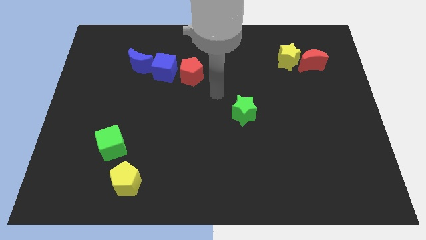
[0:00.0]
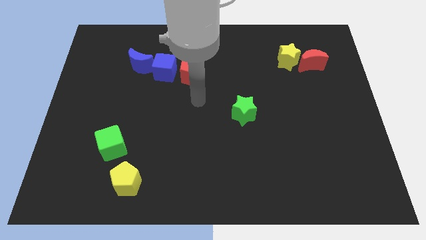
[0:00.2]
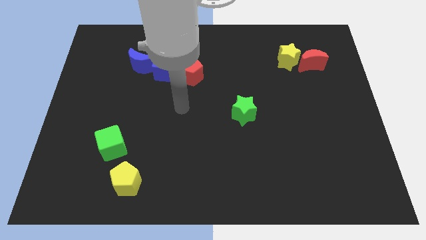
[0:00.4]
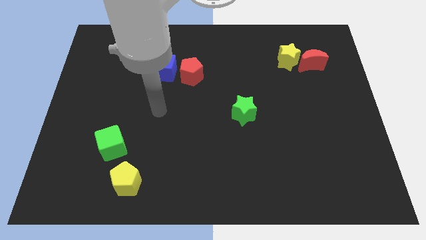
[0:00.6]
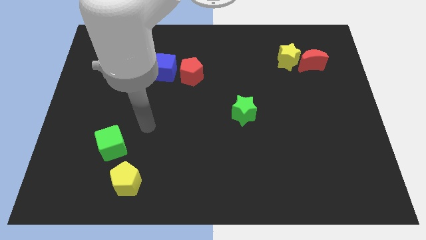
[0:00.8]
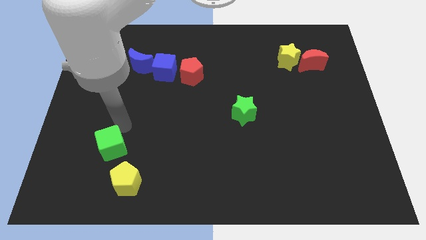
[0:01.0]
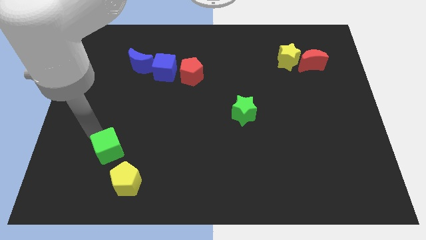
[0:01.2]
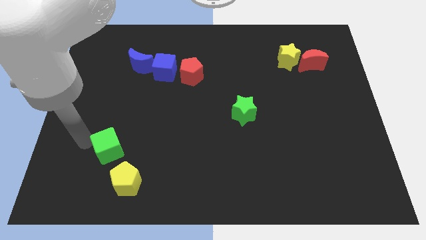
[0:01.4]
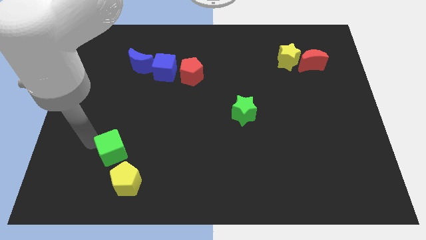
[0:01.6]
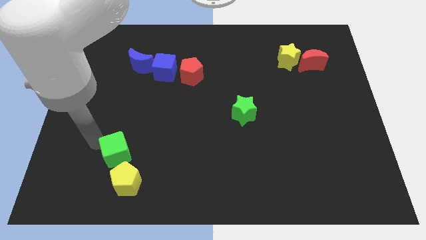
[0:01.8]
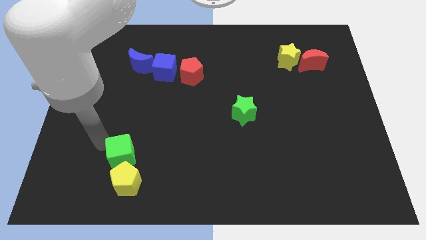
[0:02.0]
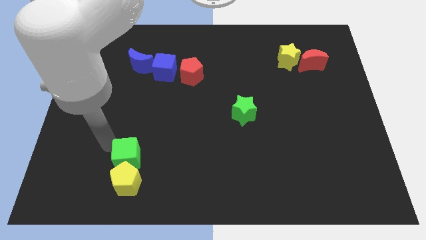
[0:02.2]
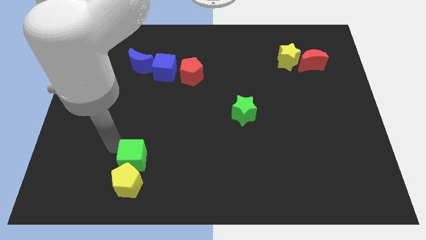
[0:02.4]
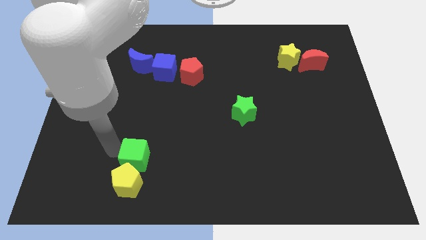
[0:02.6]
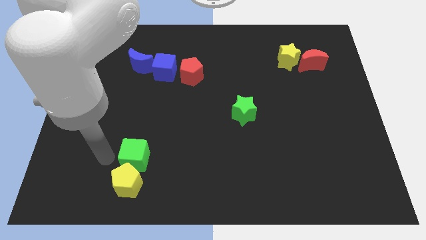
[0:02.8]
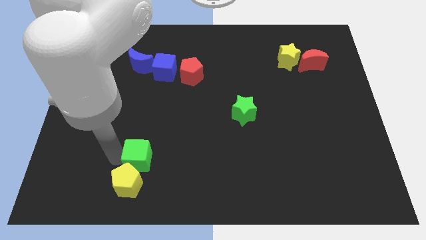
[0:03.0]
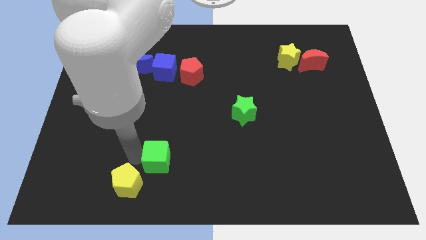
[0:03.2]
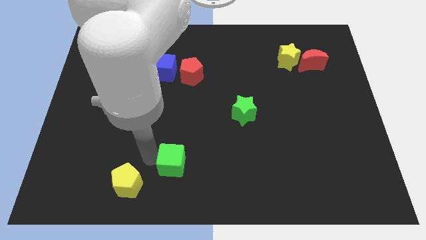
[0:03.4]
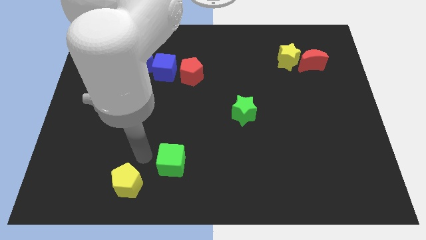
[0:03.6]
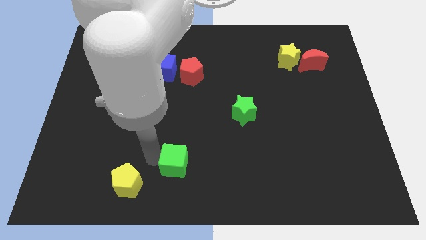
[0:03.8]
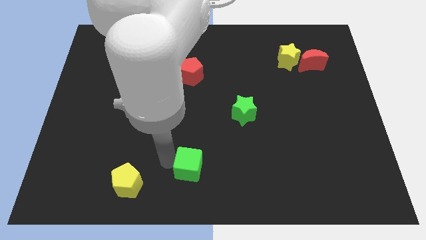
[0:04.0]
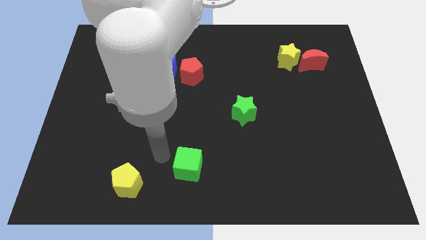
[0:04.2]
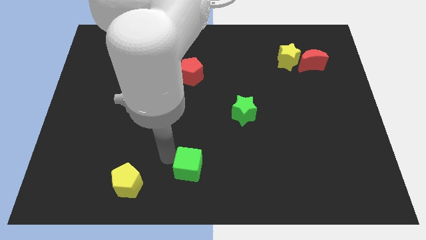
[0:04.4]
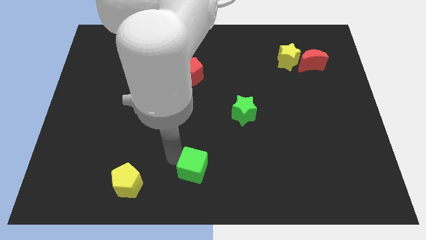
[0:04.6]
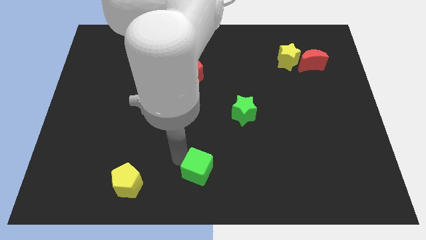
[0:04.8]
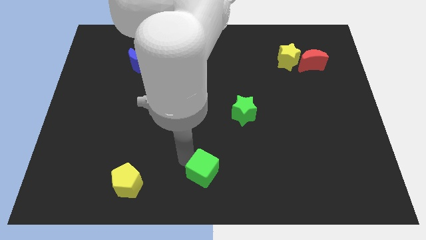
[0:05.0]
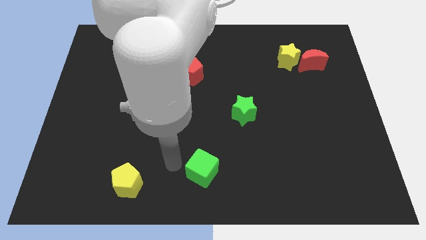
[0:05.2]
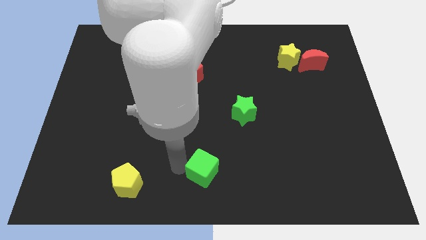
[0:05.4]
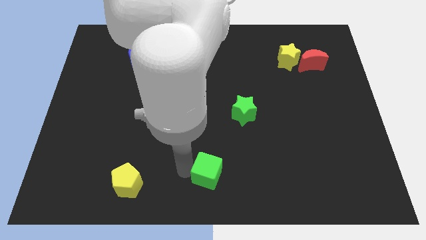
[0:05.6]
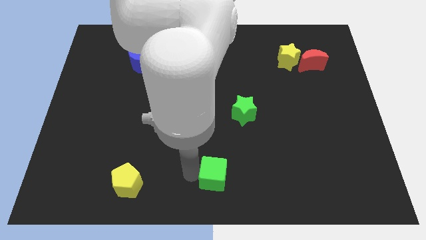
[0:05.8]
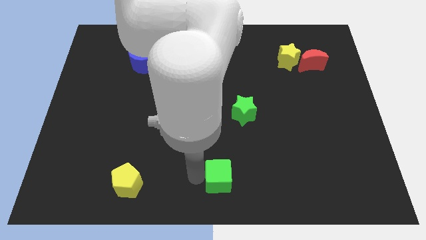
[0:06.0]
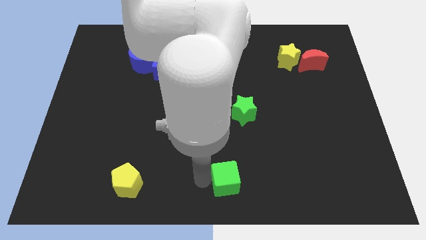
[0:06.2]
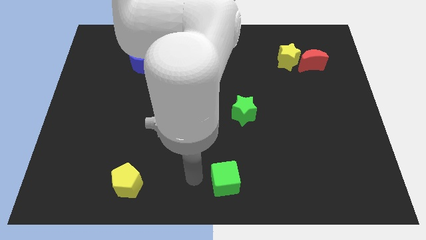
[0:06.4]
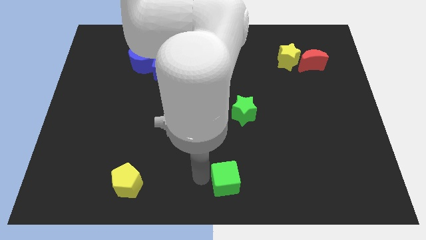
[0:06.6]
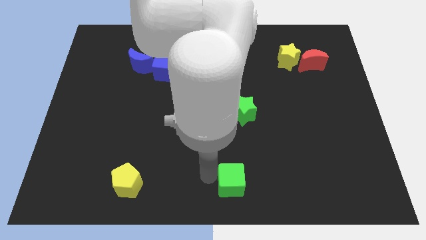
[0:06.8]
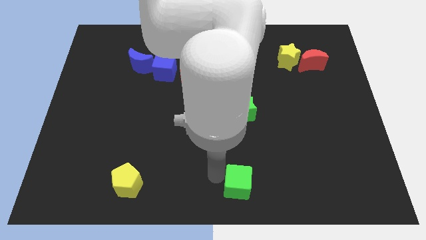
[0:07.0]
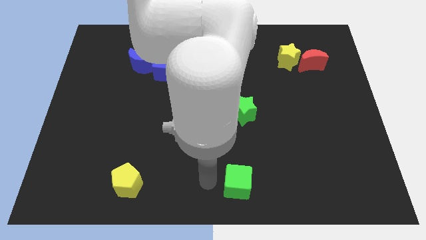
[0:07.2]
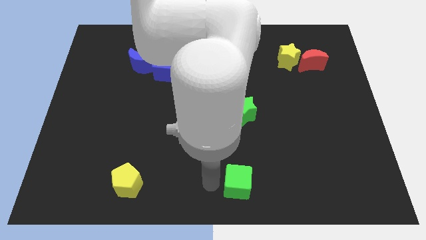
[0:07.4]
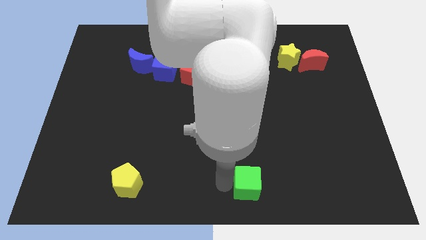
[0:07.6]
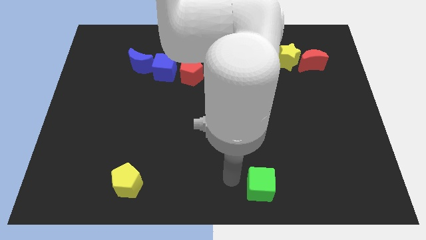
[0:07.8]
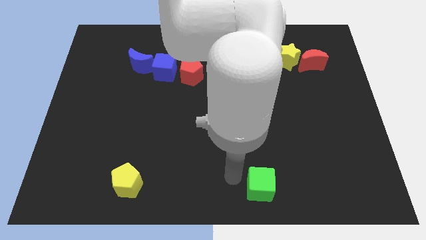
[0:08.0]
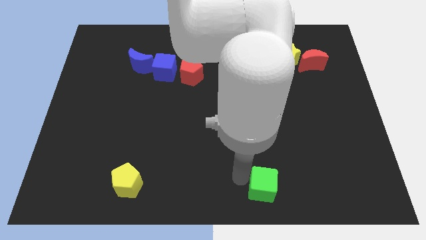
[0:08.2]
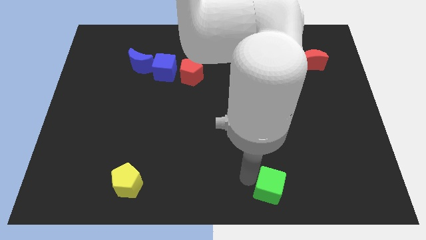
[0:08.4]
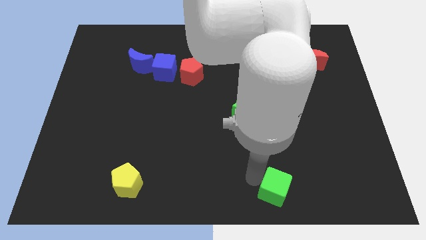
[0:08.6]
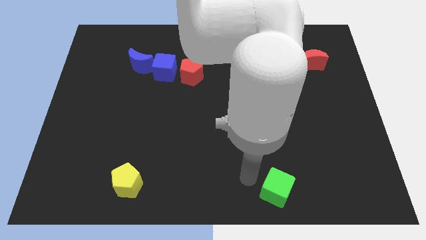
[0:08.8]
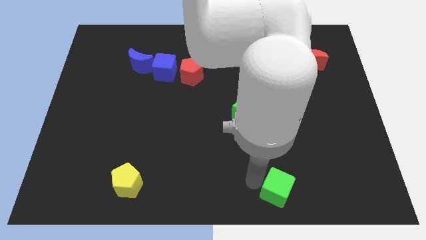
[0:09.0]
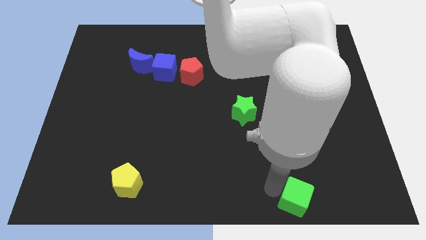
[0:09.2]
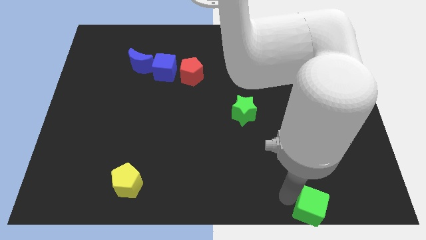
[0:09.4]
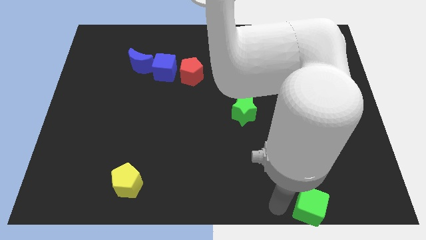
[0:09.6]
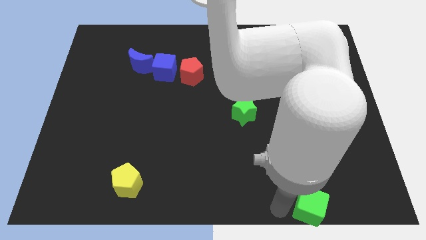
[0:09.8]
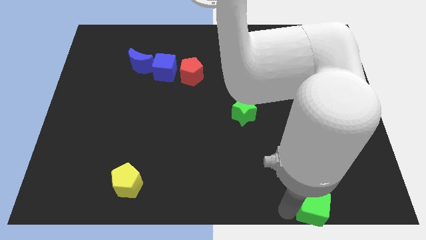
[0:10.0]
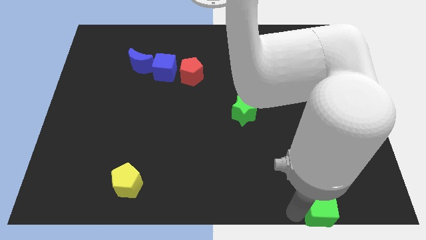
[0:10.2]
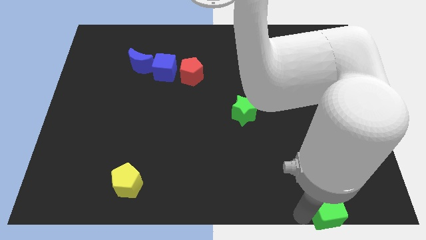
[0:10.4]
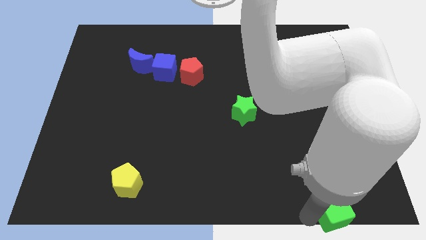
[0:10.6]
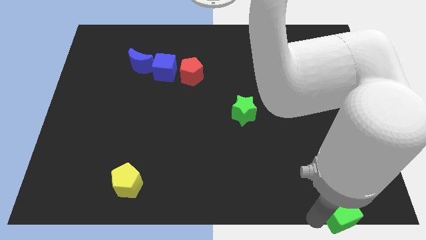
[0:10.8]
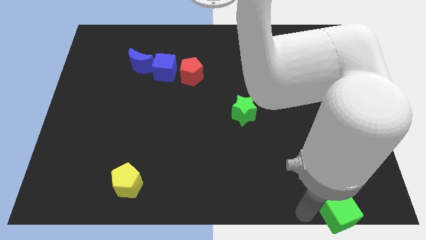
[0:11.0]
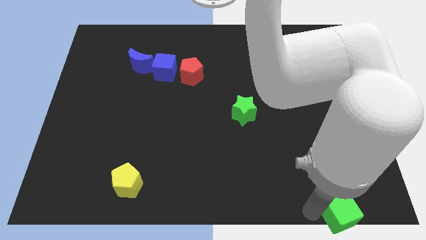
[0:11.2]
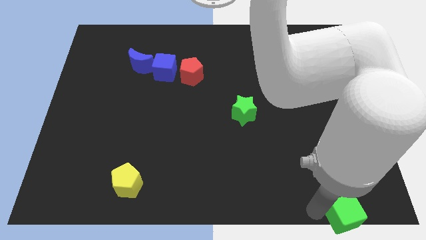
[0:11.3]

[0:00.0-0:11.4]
put the green cube to the bottom right

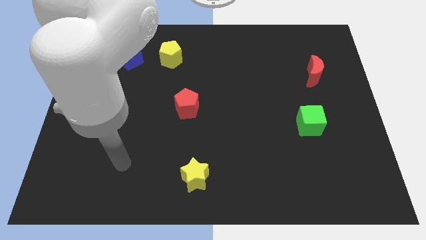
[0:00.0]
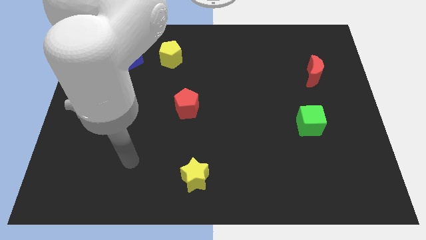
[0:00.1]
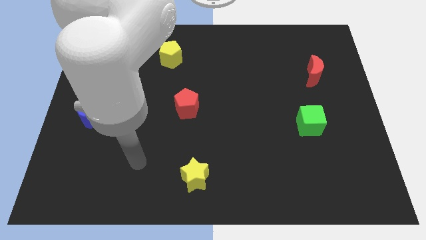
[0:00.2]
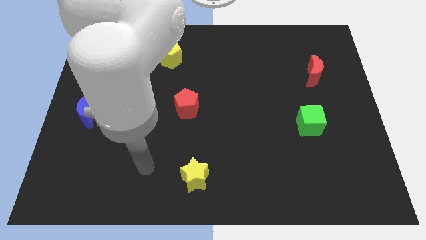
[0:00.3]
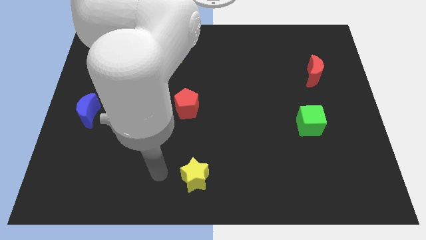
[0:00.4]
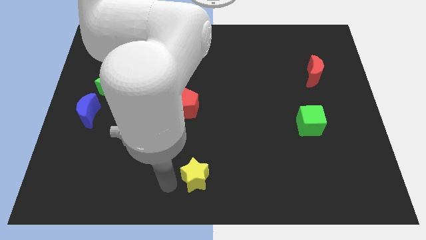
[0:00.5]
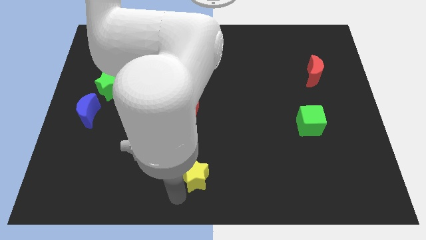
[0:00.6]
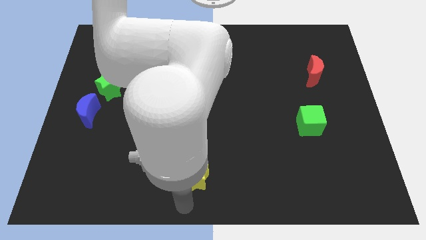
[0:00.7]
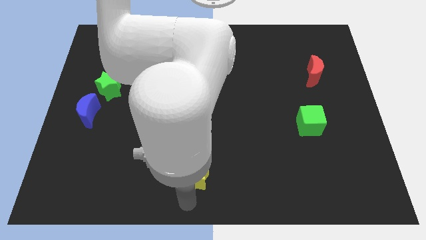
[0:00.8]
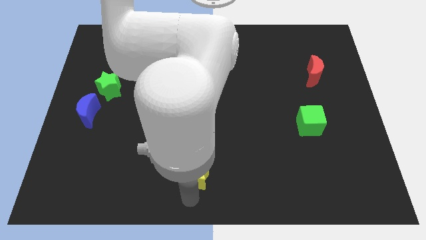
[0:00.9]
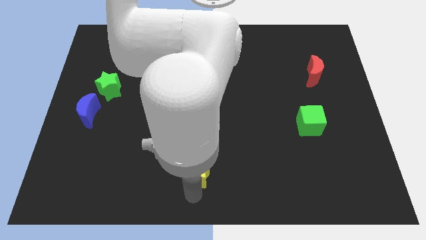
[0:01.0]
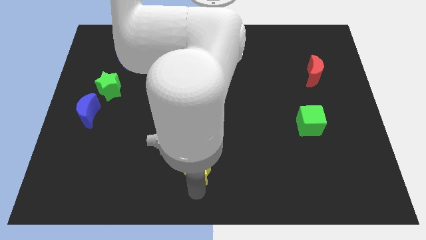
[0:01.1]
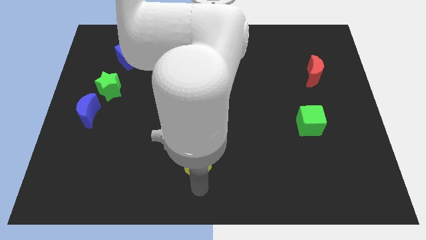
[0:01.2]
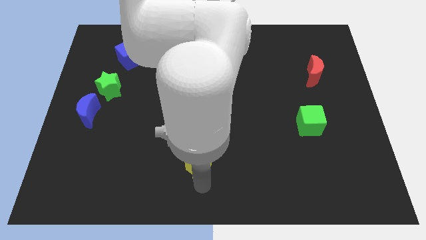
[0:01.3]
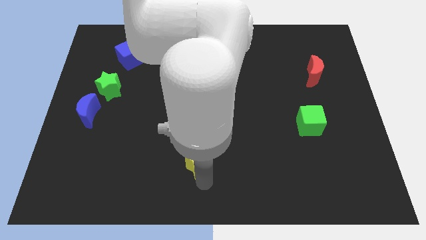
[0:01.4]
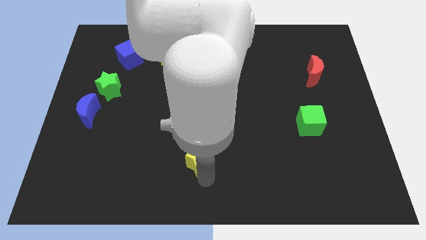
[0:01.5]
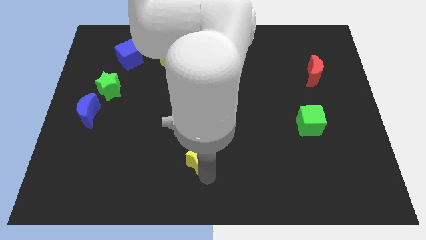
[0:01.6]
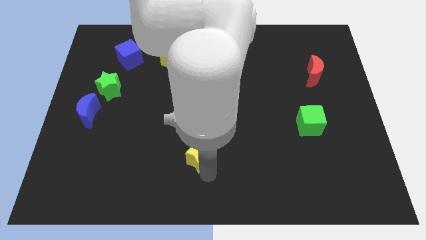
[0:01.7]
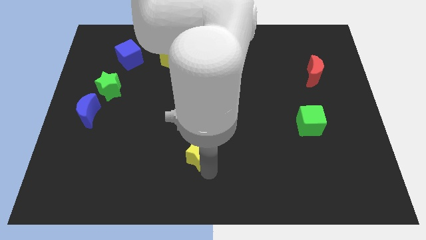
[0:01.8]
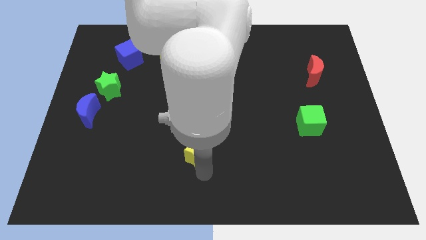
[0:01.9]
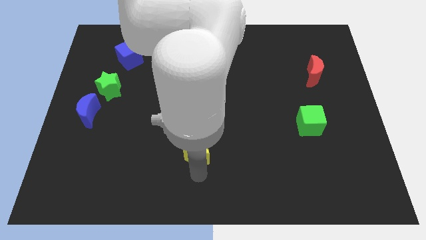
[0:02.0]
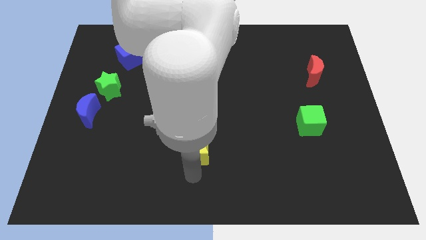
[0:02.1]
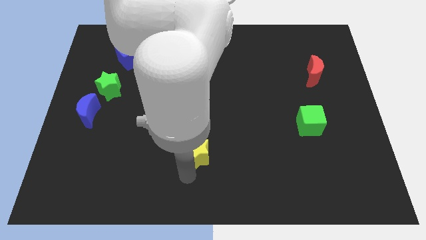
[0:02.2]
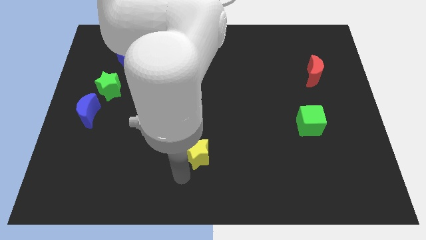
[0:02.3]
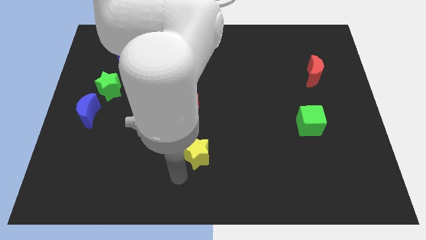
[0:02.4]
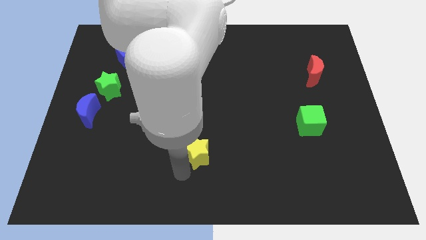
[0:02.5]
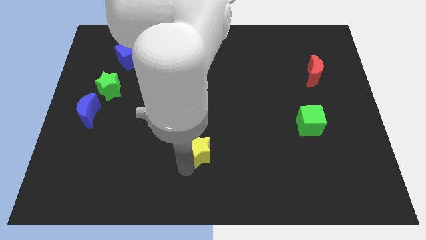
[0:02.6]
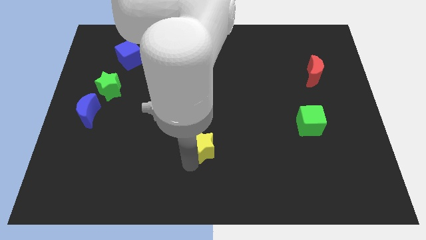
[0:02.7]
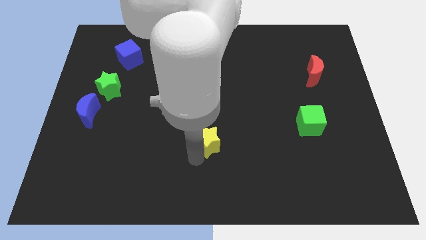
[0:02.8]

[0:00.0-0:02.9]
slide the yellow star to the center
